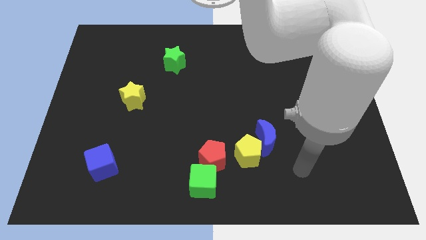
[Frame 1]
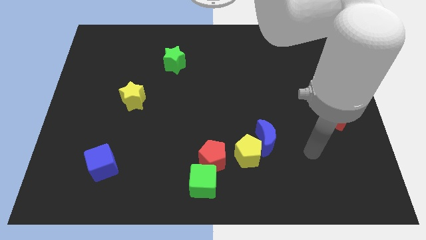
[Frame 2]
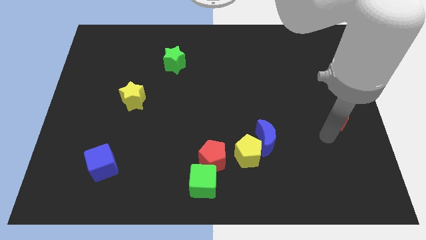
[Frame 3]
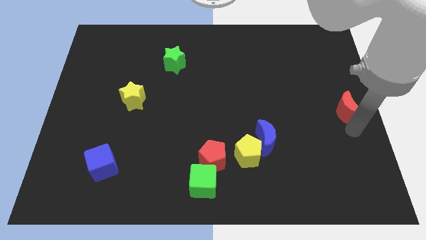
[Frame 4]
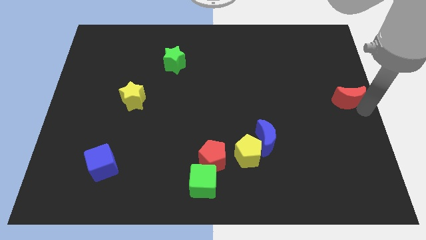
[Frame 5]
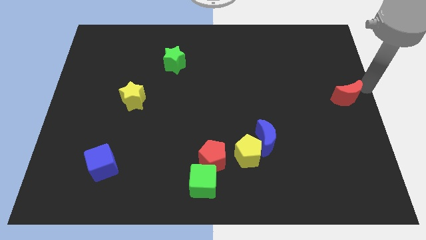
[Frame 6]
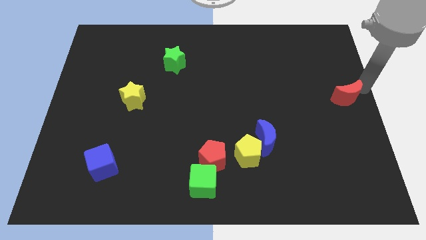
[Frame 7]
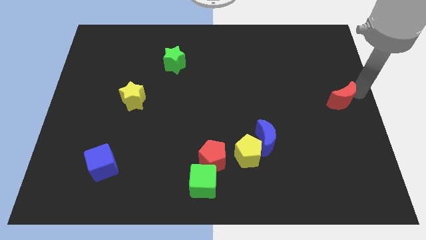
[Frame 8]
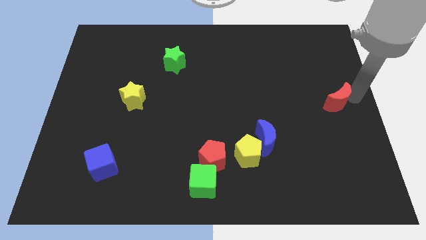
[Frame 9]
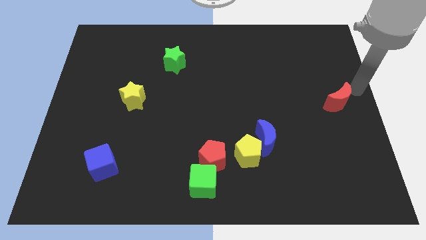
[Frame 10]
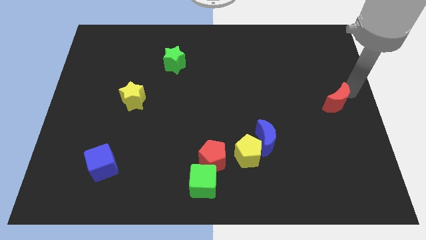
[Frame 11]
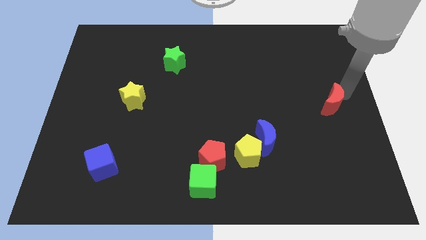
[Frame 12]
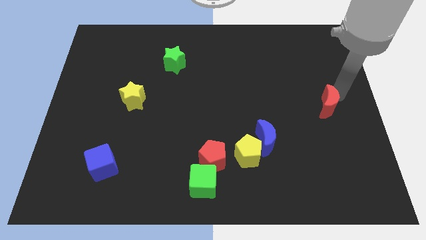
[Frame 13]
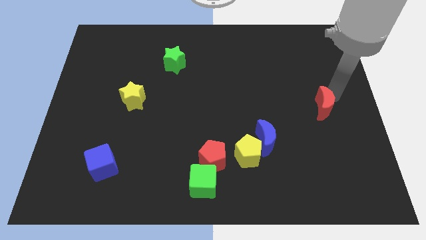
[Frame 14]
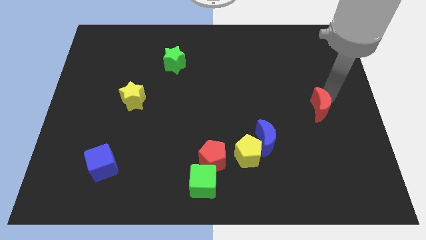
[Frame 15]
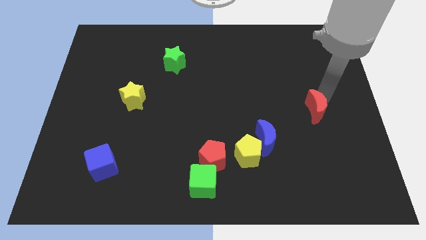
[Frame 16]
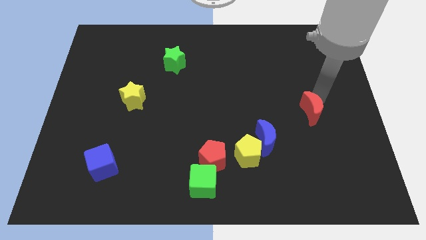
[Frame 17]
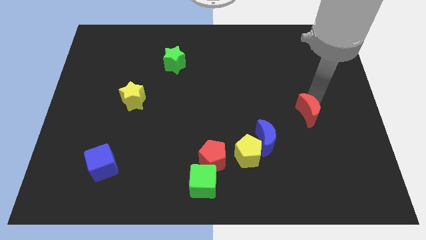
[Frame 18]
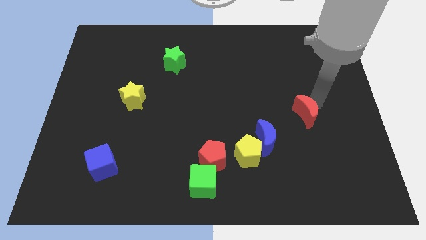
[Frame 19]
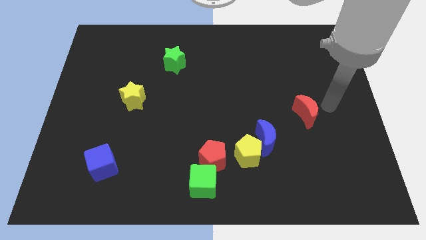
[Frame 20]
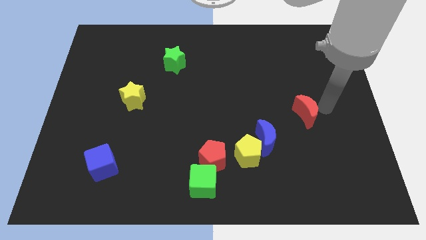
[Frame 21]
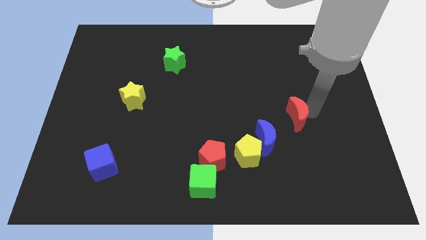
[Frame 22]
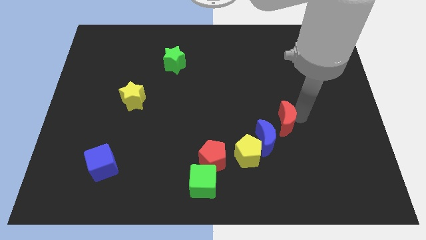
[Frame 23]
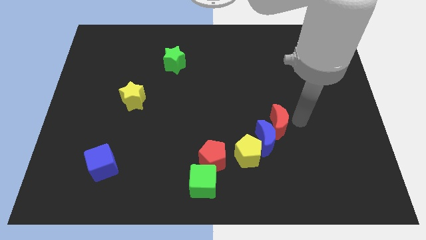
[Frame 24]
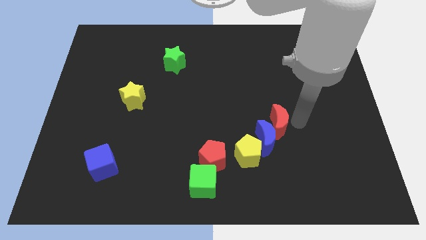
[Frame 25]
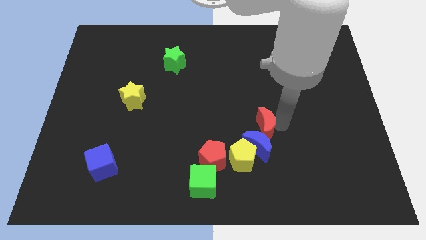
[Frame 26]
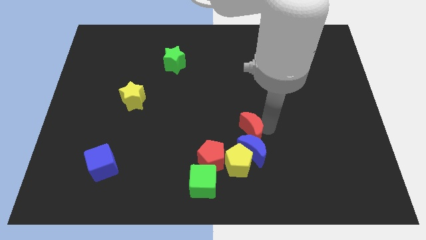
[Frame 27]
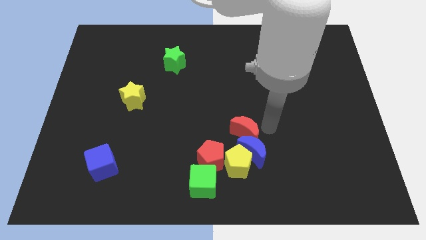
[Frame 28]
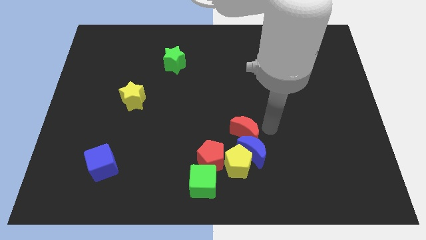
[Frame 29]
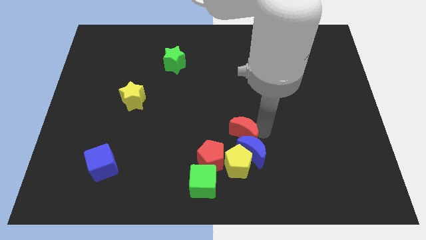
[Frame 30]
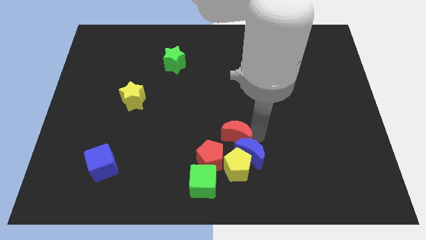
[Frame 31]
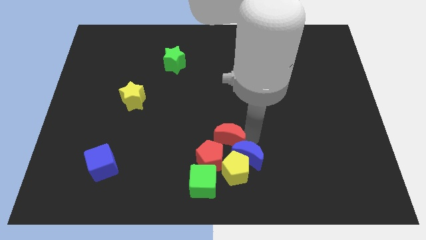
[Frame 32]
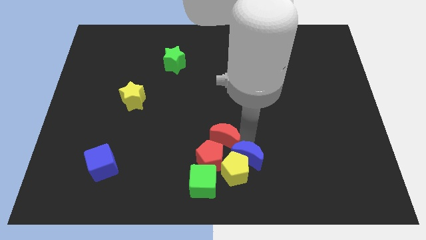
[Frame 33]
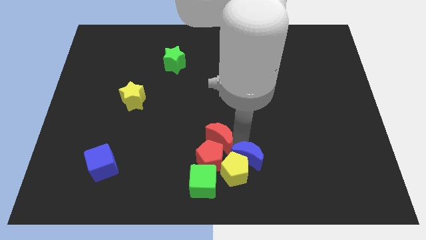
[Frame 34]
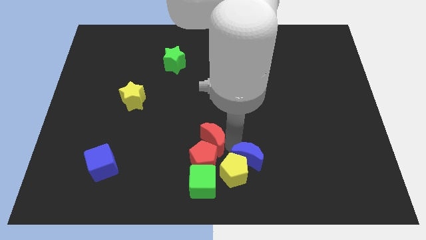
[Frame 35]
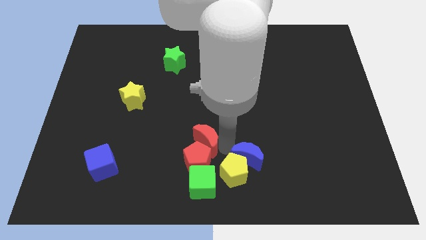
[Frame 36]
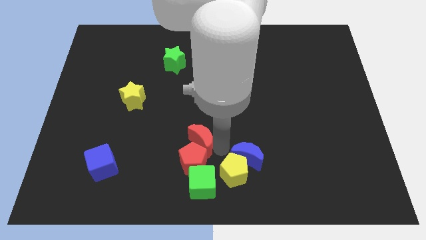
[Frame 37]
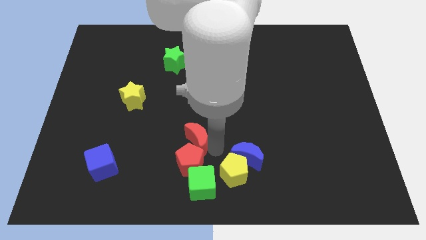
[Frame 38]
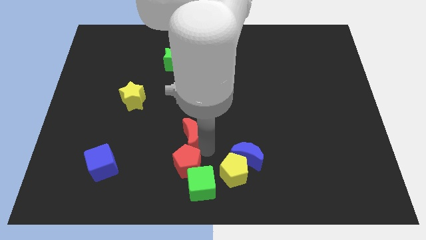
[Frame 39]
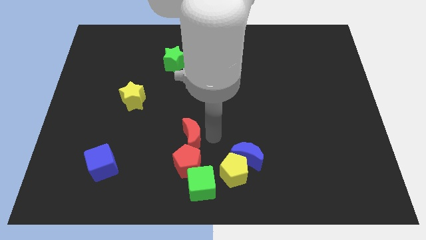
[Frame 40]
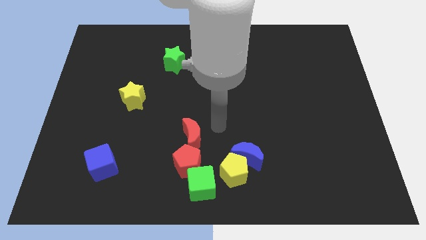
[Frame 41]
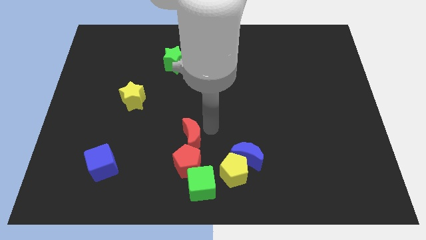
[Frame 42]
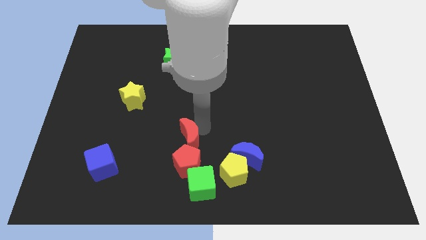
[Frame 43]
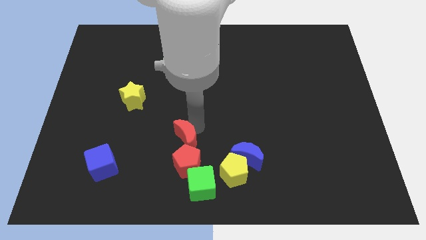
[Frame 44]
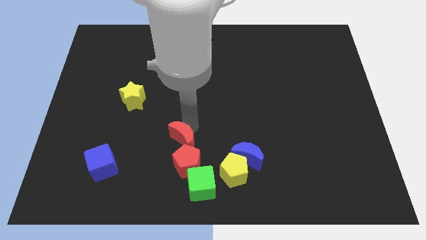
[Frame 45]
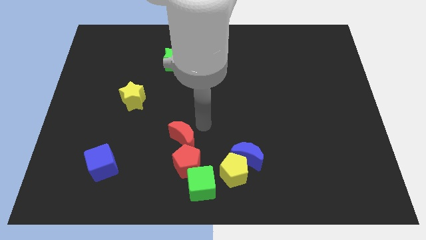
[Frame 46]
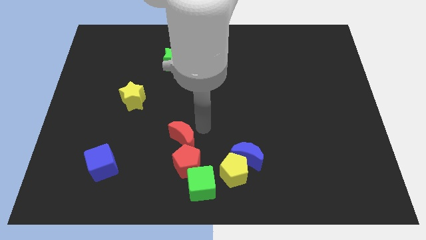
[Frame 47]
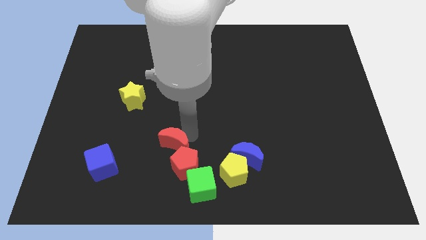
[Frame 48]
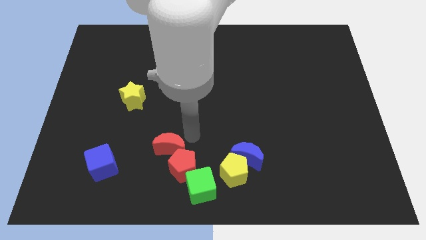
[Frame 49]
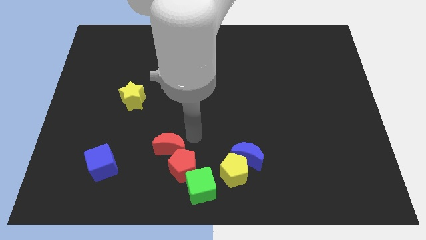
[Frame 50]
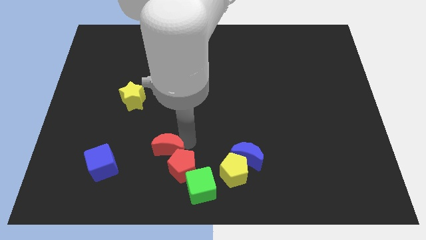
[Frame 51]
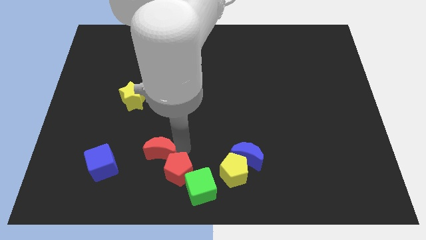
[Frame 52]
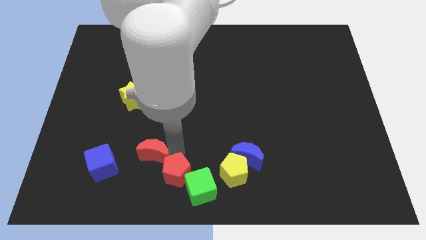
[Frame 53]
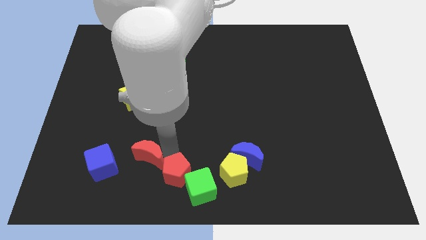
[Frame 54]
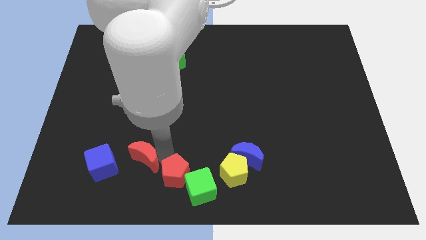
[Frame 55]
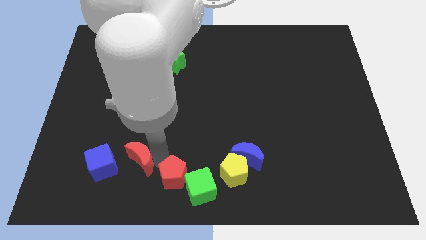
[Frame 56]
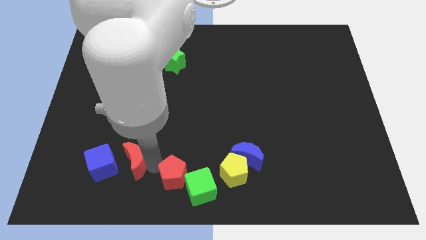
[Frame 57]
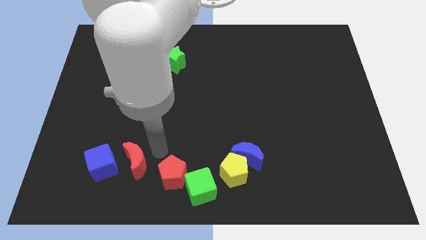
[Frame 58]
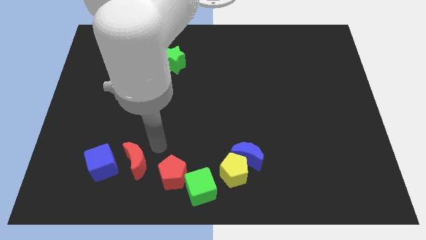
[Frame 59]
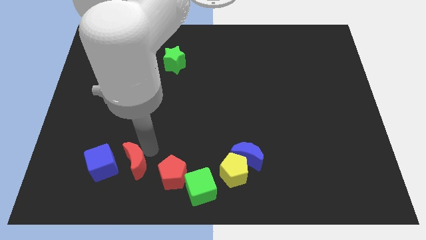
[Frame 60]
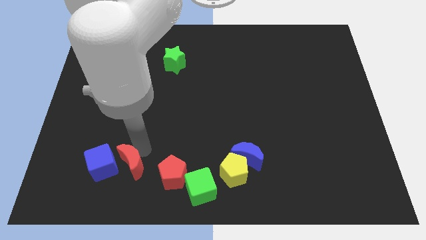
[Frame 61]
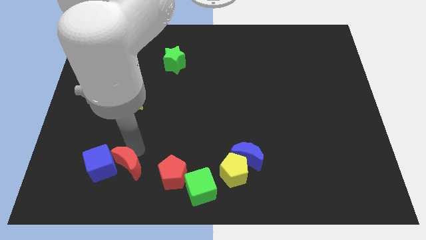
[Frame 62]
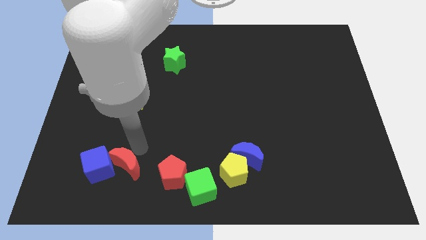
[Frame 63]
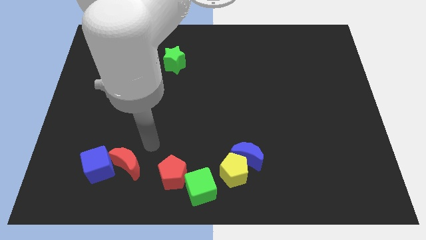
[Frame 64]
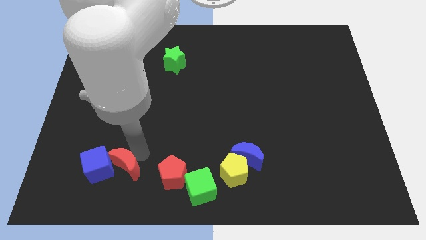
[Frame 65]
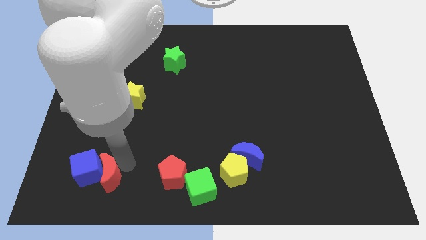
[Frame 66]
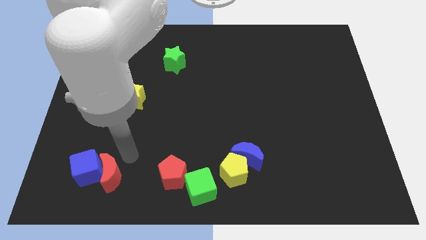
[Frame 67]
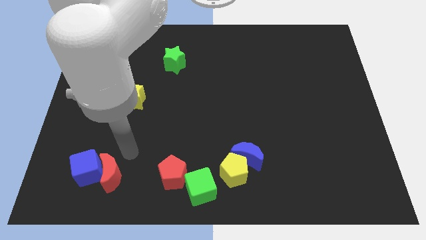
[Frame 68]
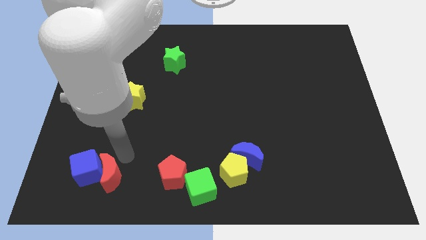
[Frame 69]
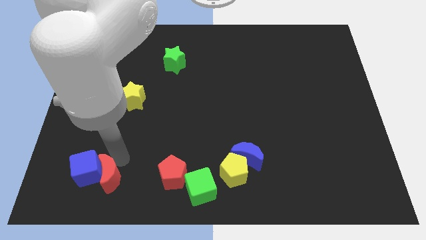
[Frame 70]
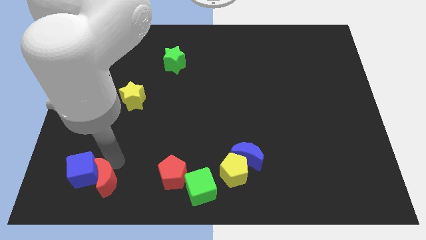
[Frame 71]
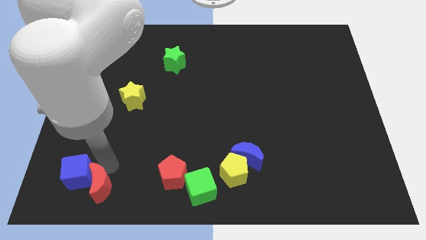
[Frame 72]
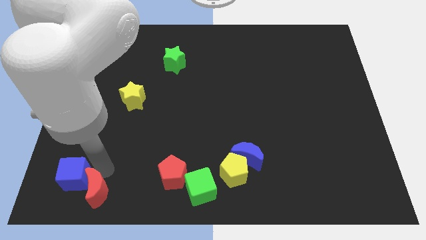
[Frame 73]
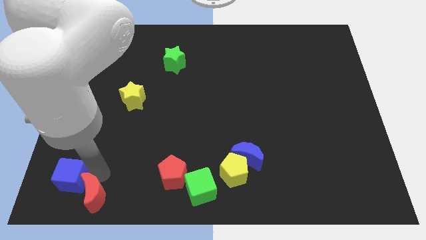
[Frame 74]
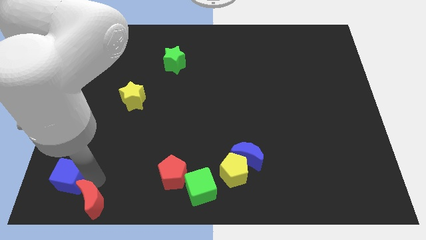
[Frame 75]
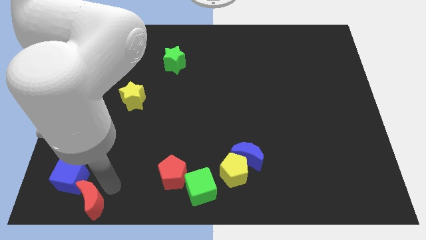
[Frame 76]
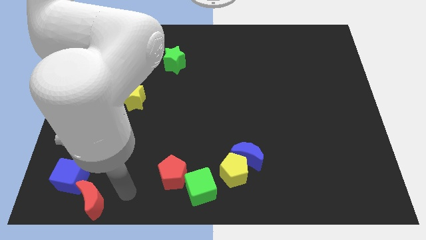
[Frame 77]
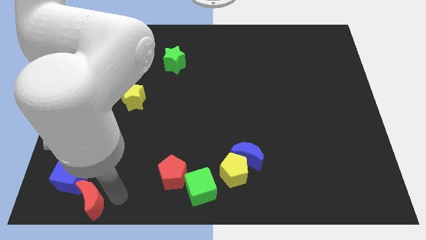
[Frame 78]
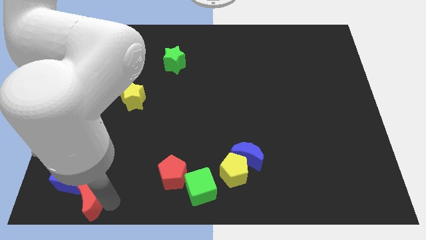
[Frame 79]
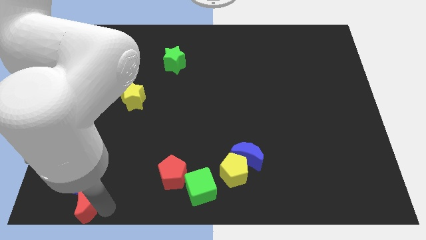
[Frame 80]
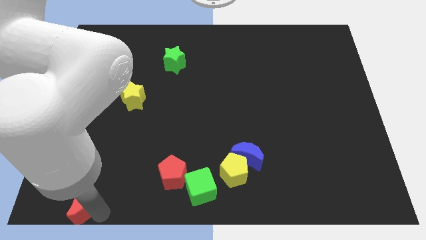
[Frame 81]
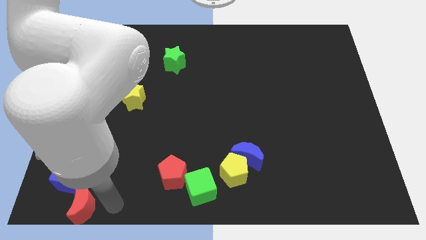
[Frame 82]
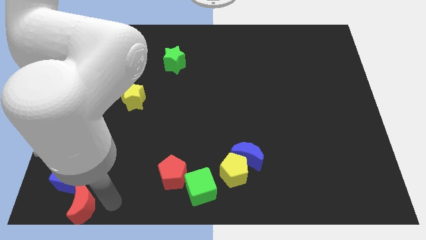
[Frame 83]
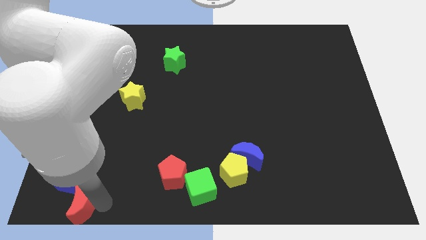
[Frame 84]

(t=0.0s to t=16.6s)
push the red moon to the lower left corner
